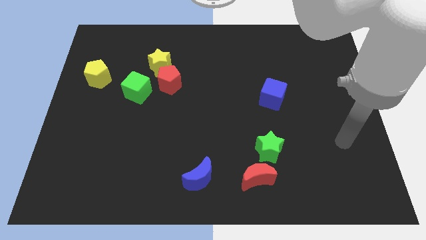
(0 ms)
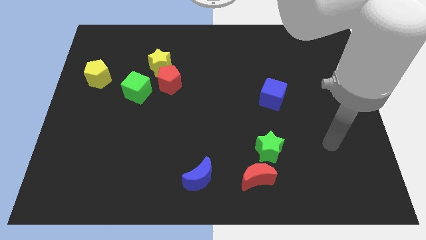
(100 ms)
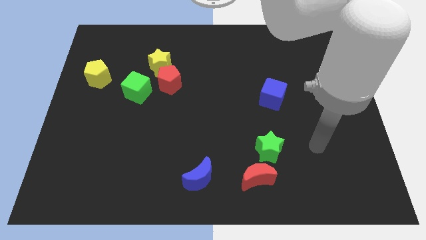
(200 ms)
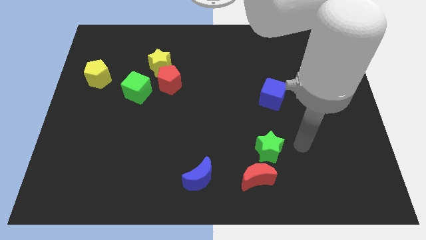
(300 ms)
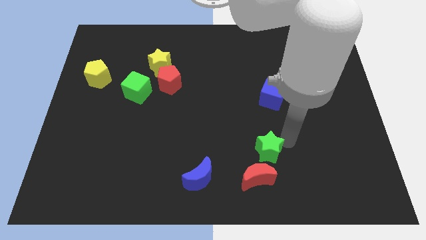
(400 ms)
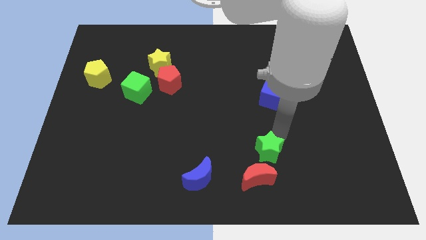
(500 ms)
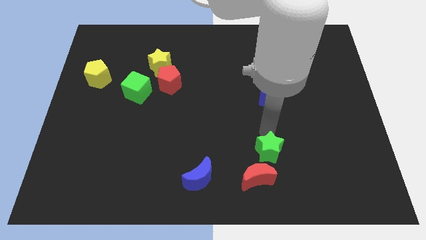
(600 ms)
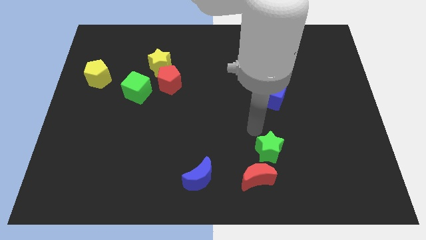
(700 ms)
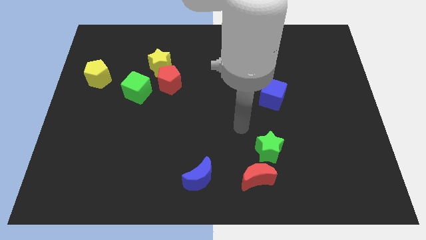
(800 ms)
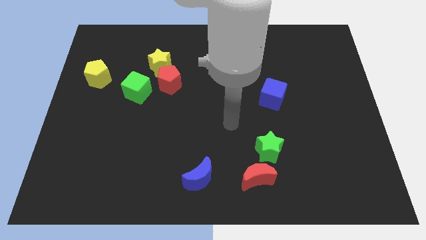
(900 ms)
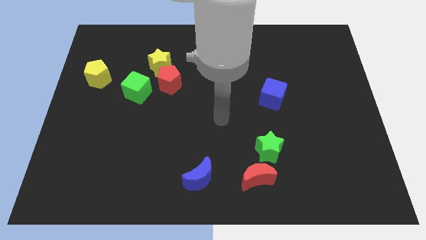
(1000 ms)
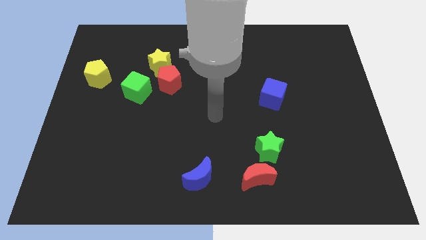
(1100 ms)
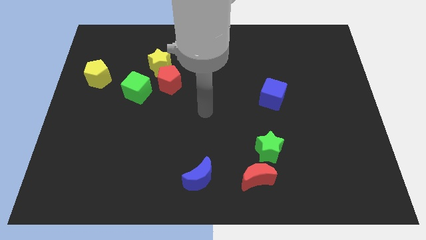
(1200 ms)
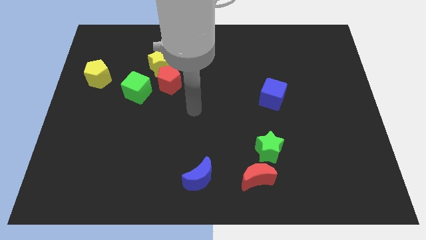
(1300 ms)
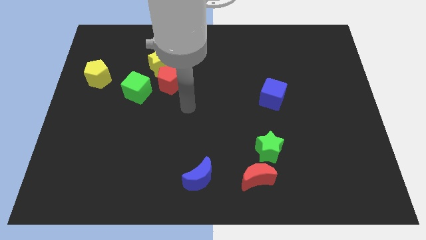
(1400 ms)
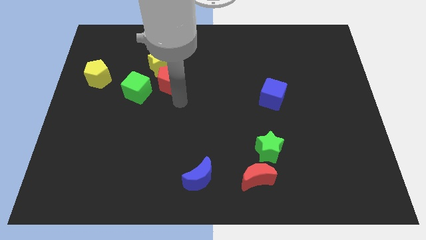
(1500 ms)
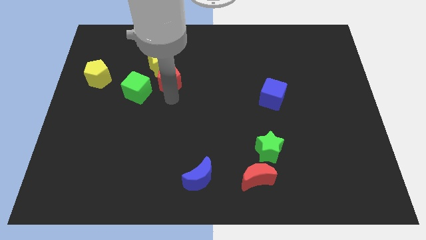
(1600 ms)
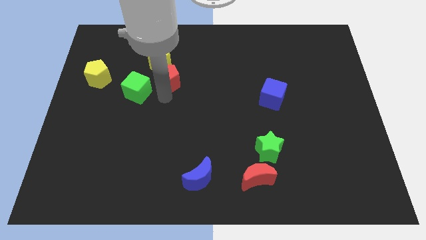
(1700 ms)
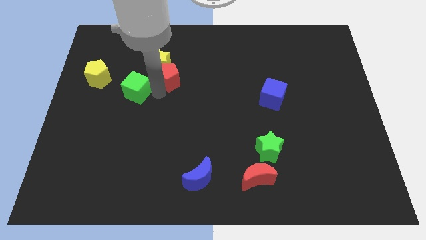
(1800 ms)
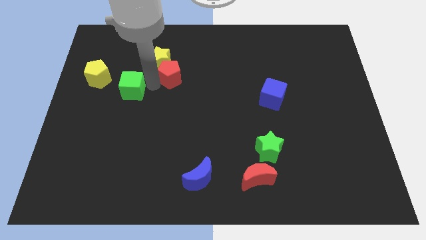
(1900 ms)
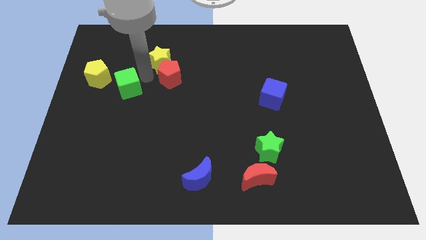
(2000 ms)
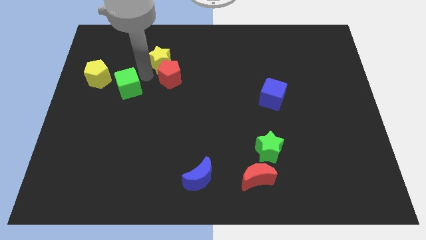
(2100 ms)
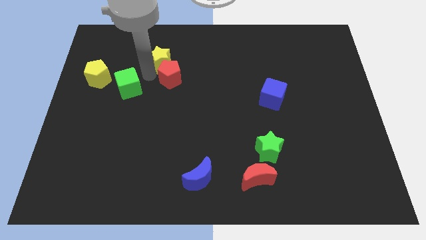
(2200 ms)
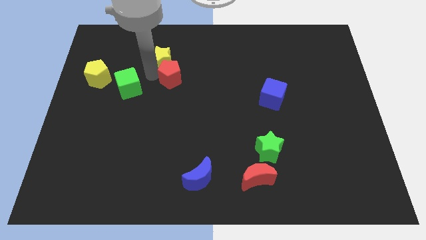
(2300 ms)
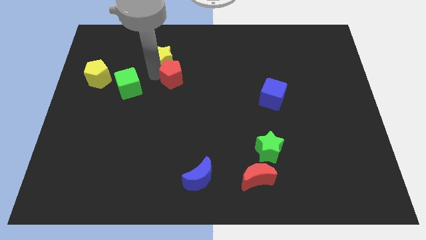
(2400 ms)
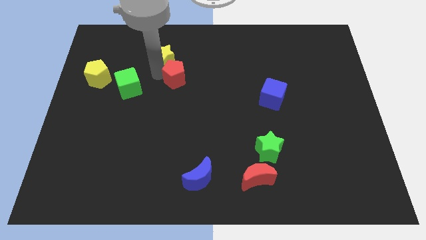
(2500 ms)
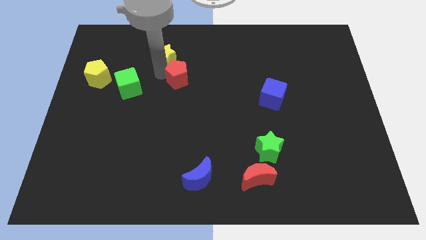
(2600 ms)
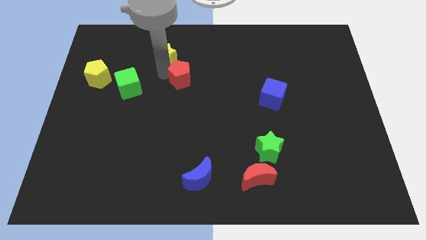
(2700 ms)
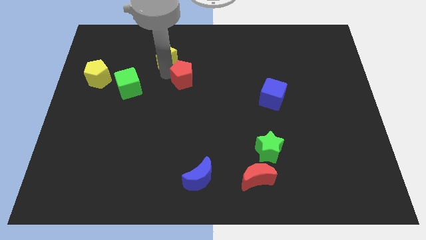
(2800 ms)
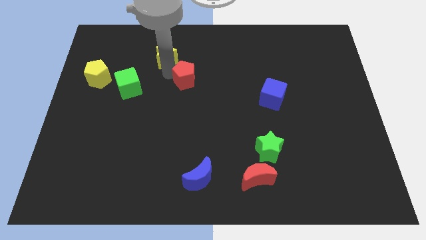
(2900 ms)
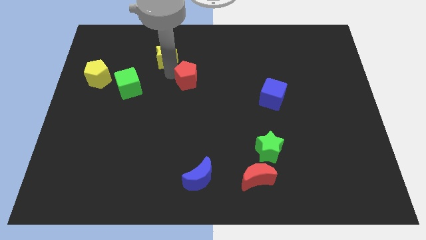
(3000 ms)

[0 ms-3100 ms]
pull the red pentagon apart from the yellow star and green cube

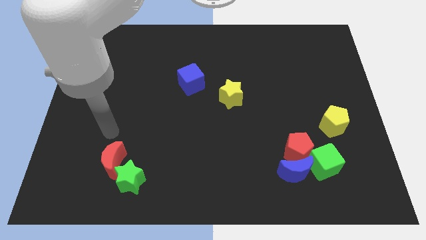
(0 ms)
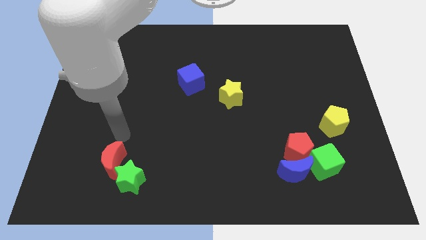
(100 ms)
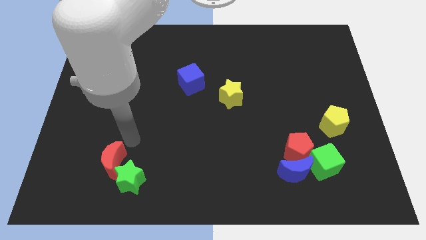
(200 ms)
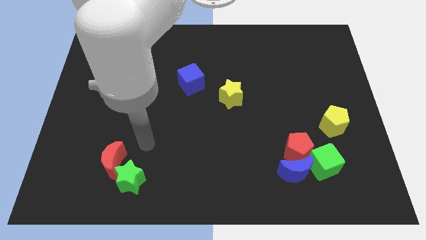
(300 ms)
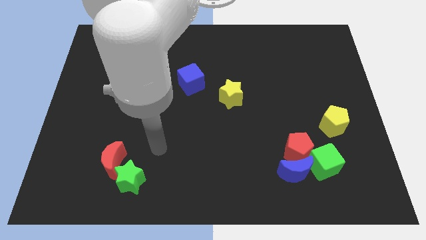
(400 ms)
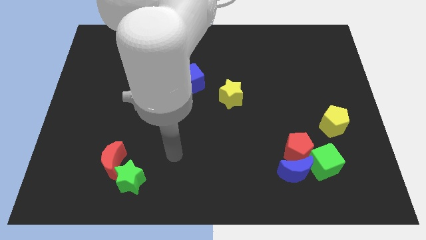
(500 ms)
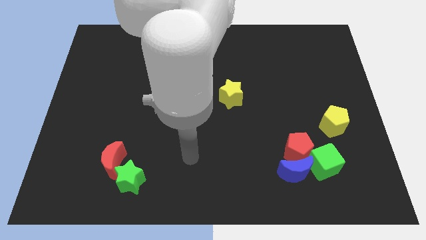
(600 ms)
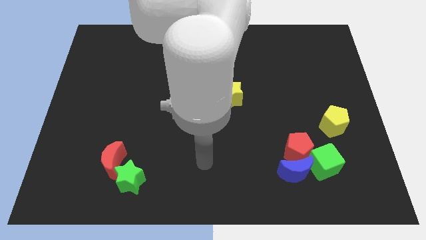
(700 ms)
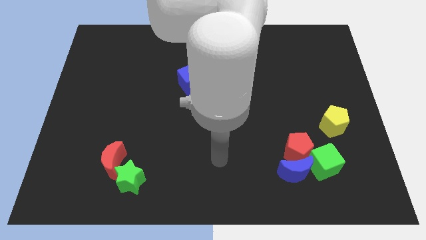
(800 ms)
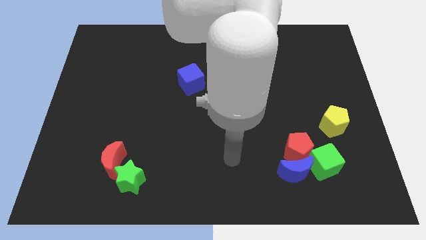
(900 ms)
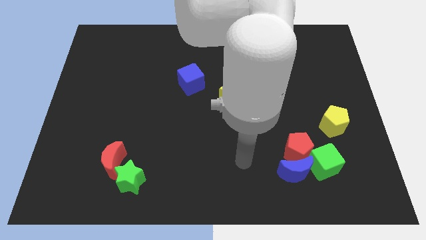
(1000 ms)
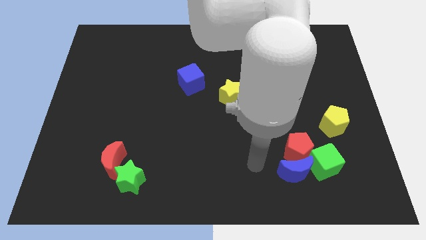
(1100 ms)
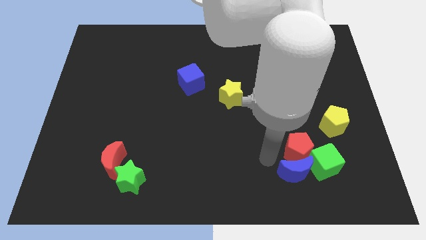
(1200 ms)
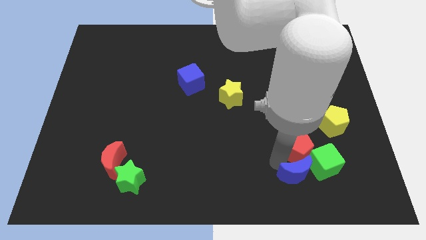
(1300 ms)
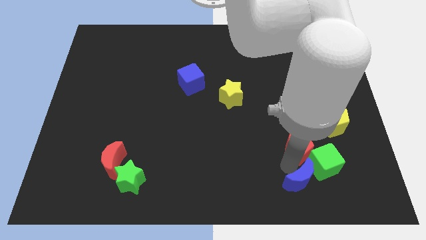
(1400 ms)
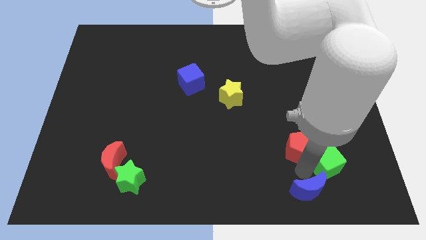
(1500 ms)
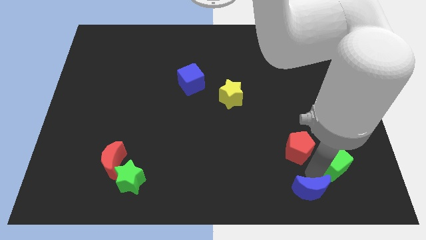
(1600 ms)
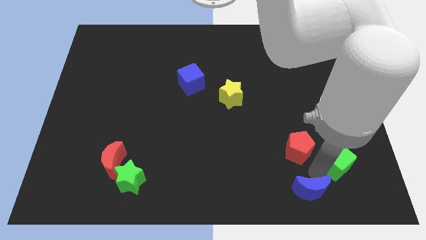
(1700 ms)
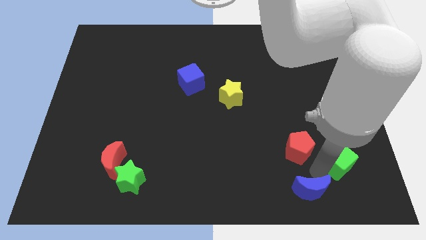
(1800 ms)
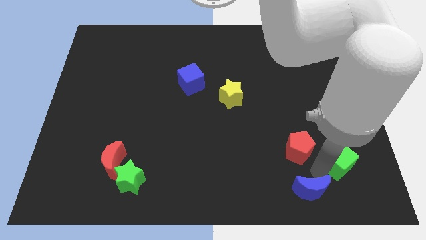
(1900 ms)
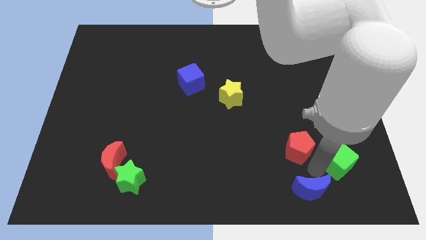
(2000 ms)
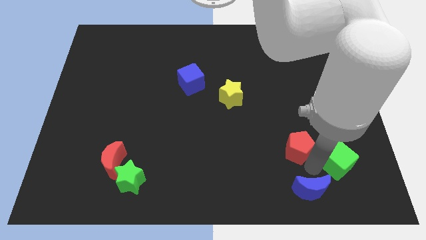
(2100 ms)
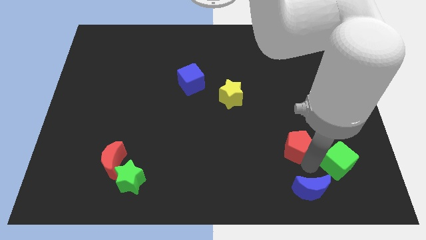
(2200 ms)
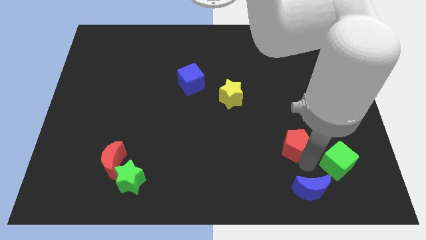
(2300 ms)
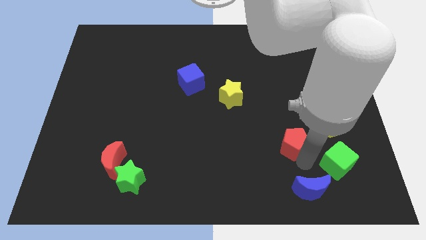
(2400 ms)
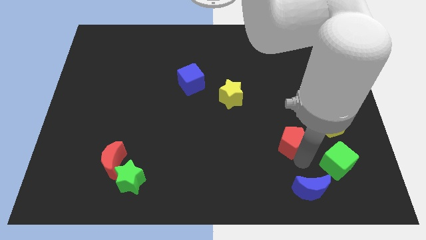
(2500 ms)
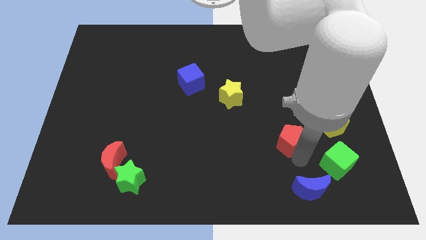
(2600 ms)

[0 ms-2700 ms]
move the red pentagon away from the blue moon and green cube

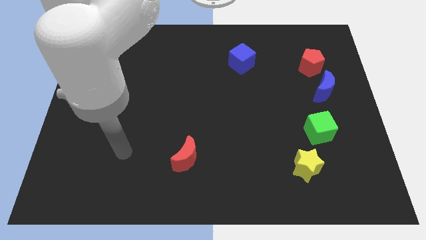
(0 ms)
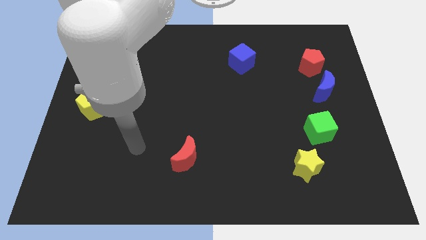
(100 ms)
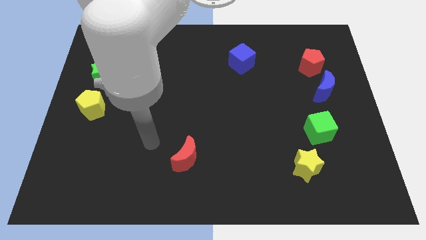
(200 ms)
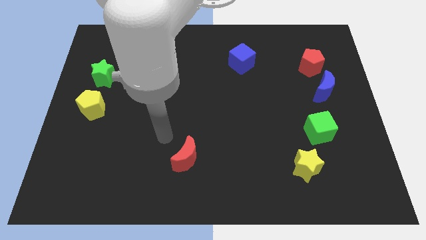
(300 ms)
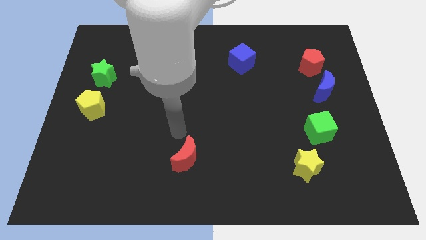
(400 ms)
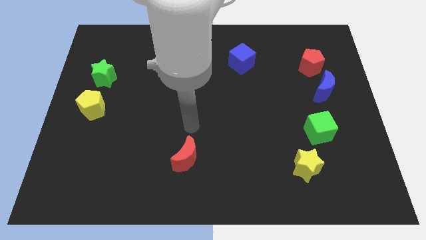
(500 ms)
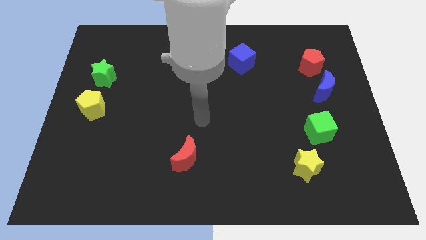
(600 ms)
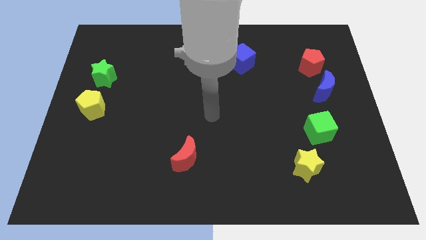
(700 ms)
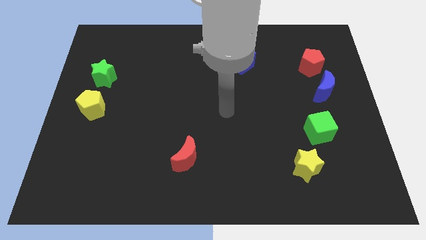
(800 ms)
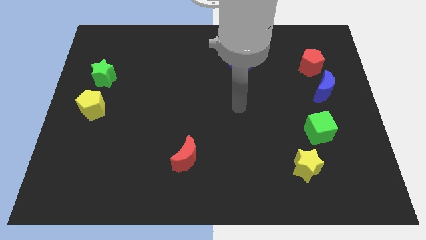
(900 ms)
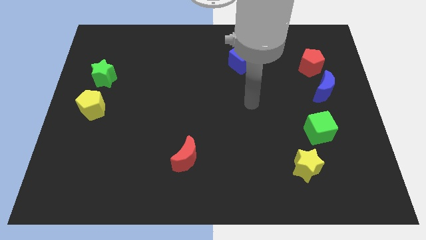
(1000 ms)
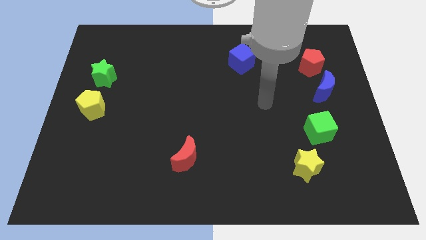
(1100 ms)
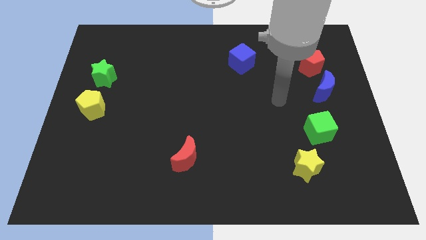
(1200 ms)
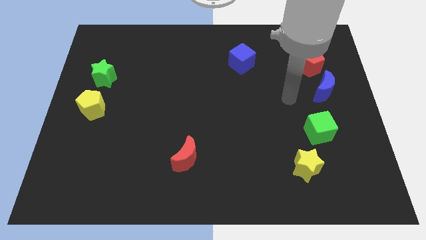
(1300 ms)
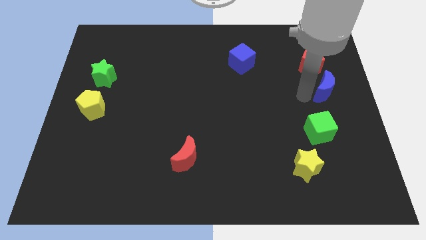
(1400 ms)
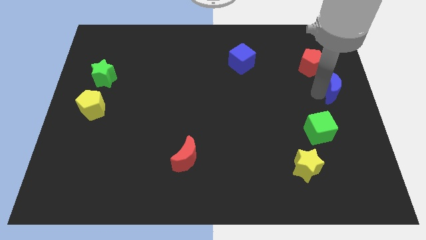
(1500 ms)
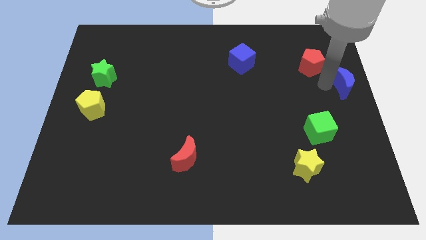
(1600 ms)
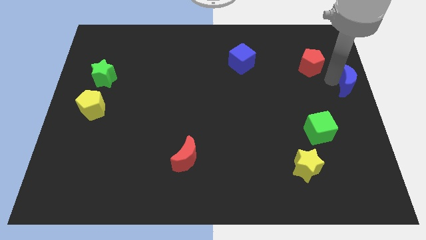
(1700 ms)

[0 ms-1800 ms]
move the red pentagon away from the blue moon

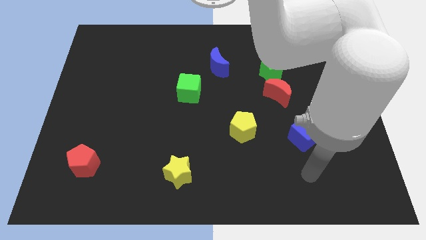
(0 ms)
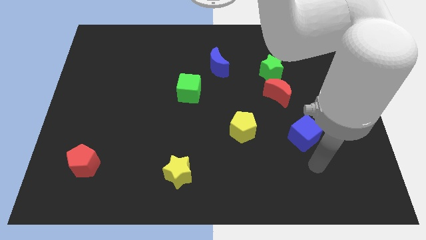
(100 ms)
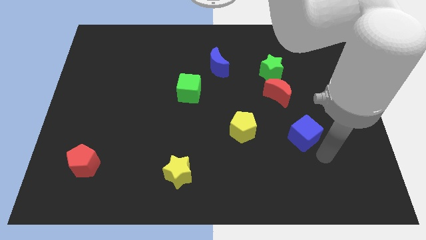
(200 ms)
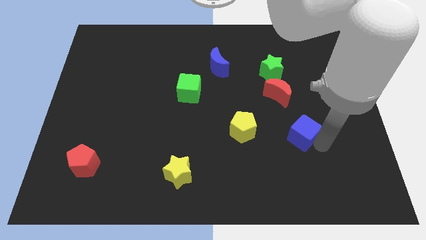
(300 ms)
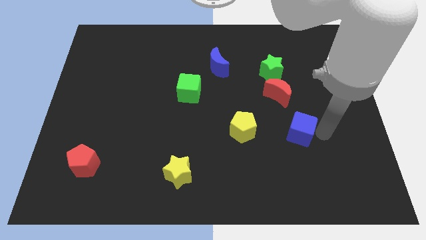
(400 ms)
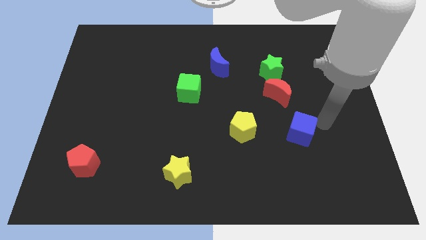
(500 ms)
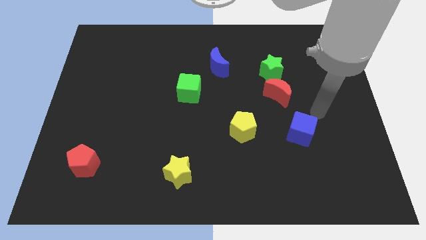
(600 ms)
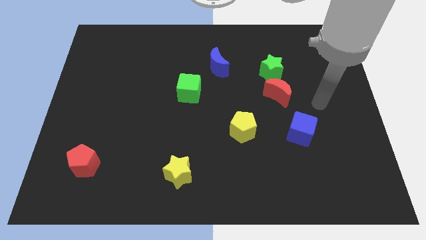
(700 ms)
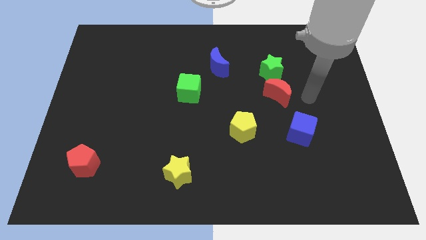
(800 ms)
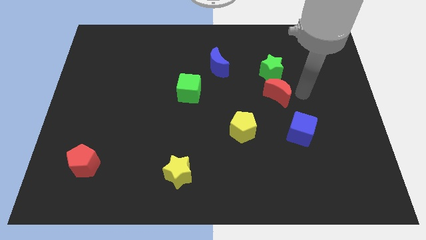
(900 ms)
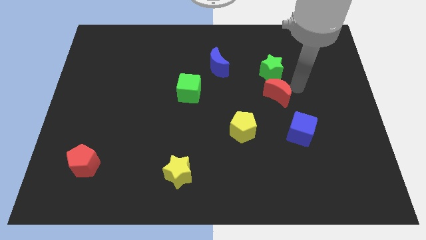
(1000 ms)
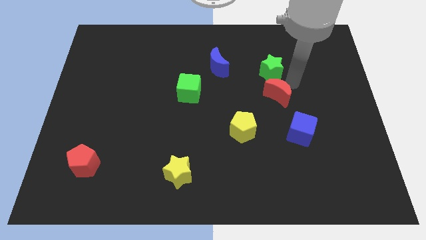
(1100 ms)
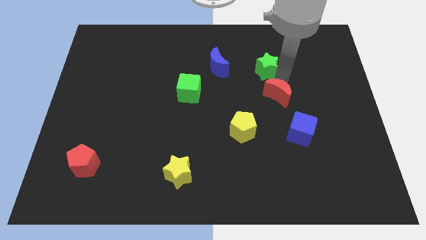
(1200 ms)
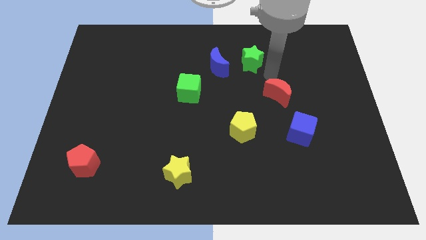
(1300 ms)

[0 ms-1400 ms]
pull the red moon apart from the green star

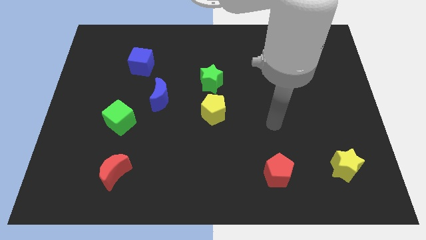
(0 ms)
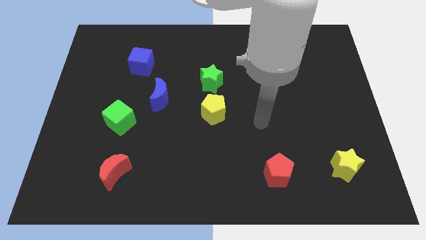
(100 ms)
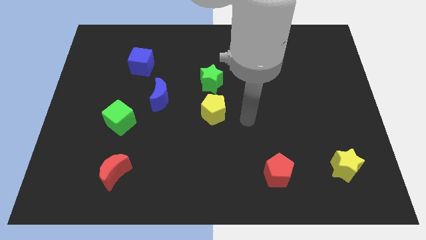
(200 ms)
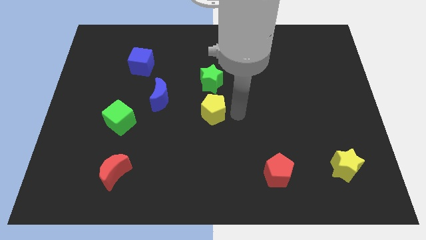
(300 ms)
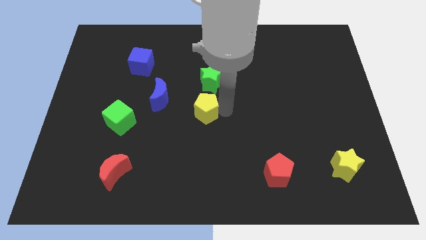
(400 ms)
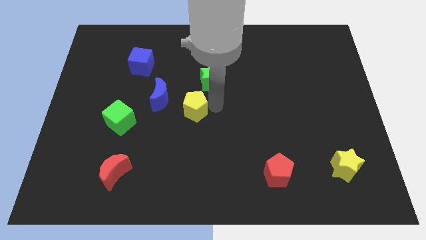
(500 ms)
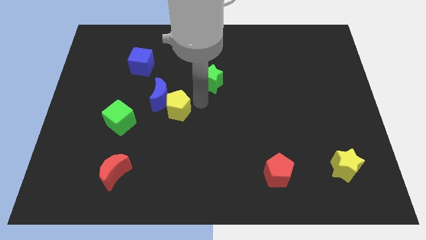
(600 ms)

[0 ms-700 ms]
pull the green star apart from the yellow pentagon
